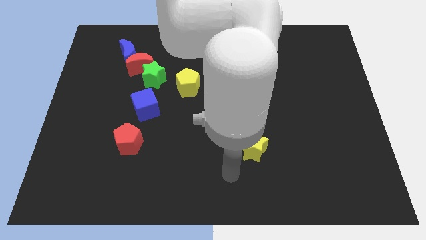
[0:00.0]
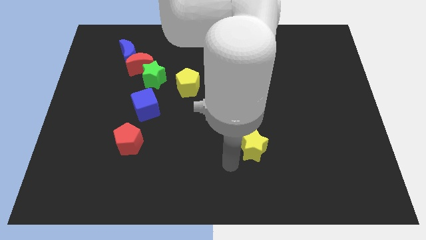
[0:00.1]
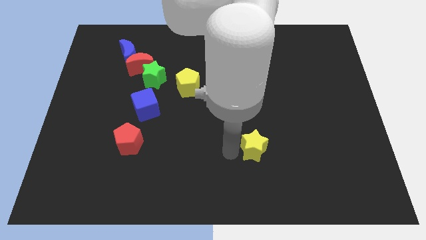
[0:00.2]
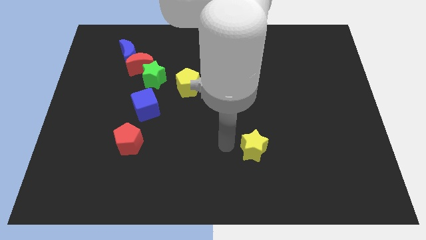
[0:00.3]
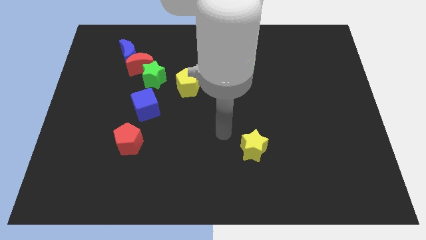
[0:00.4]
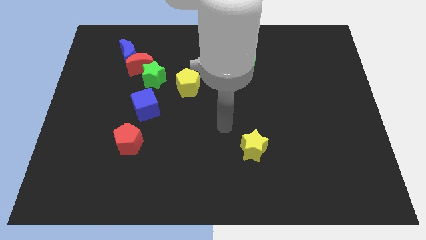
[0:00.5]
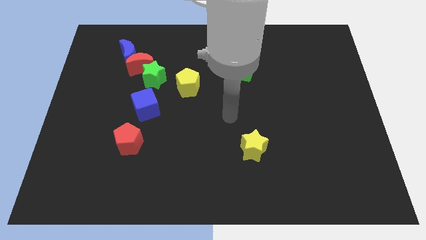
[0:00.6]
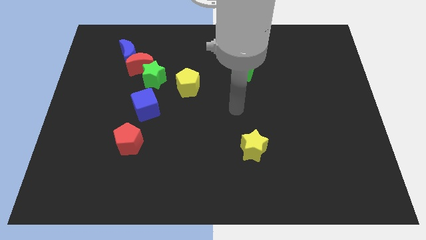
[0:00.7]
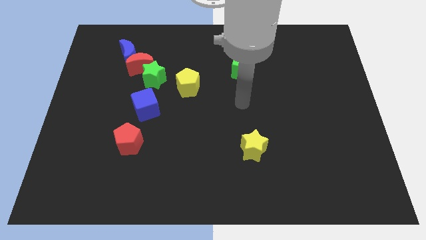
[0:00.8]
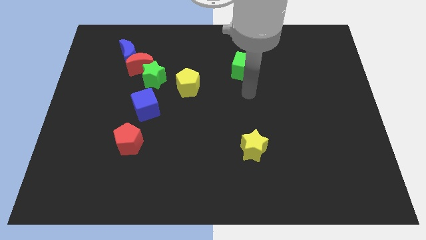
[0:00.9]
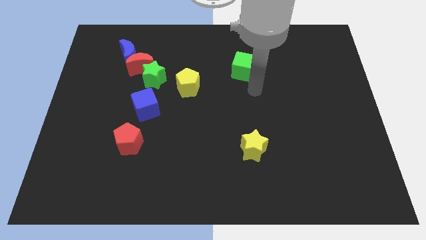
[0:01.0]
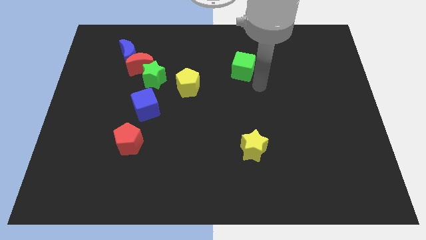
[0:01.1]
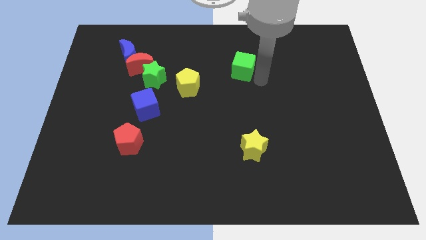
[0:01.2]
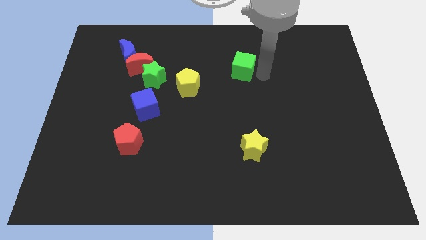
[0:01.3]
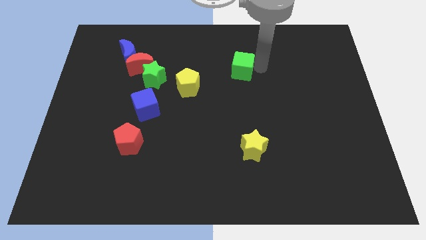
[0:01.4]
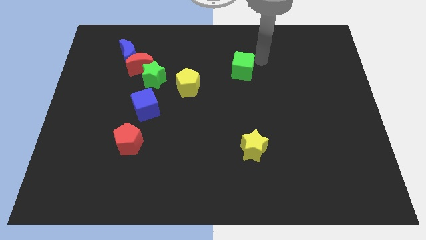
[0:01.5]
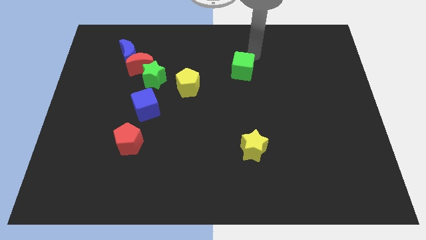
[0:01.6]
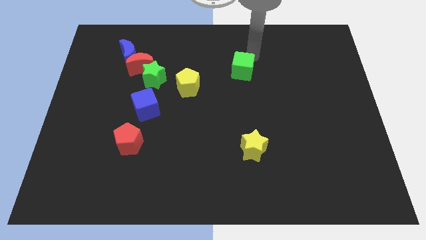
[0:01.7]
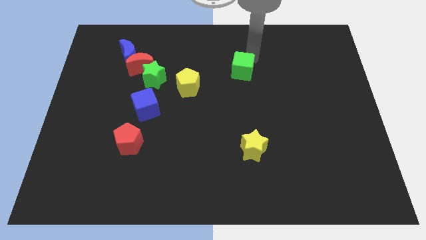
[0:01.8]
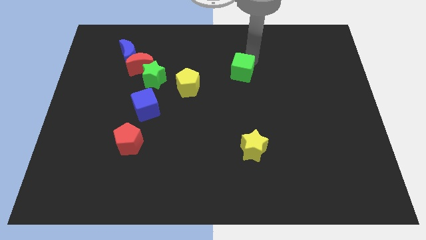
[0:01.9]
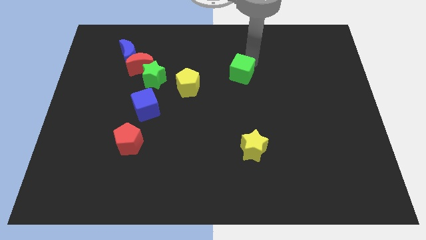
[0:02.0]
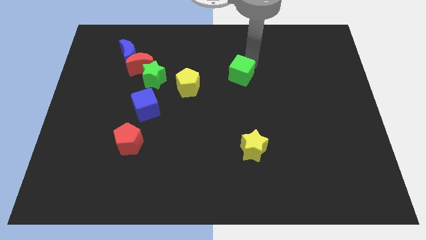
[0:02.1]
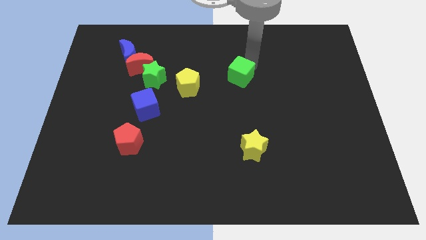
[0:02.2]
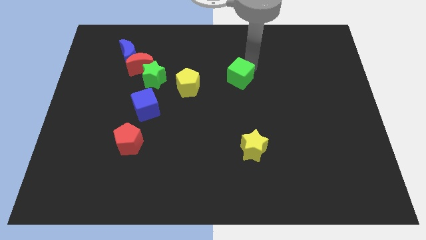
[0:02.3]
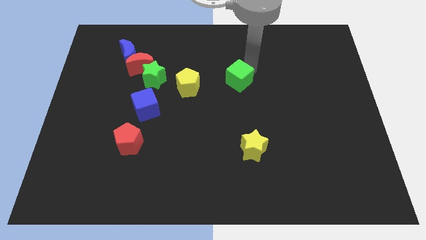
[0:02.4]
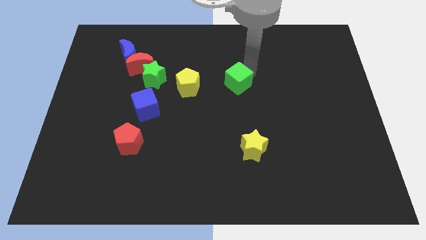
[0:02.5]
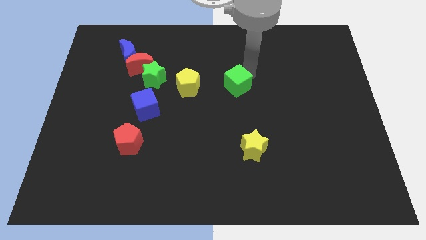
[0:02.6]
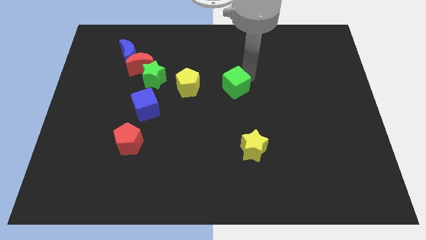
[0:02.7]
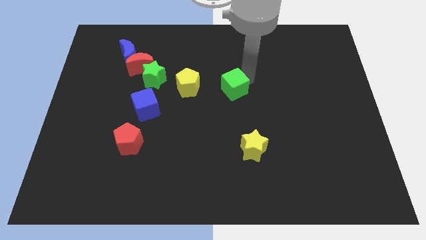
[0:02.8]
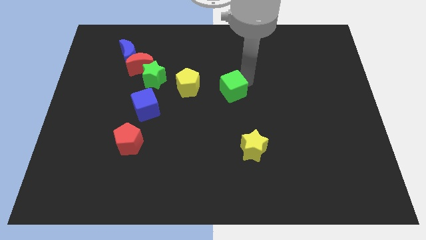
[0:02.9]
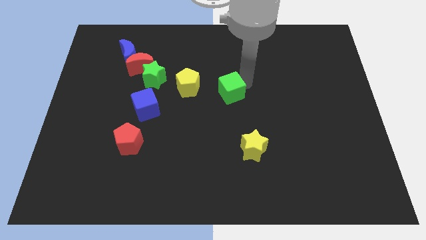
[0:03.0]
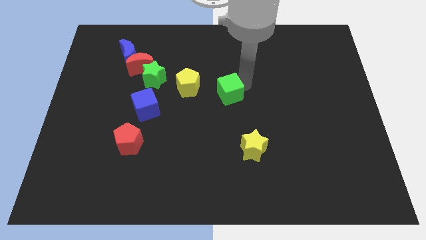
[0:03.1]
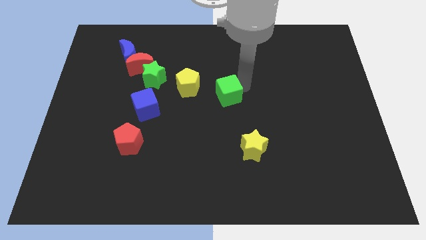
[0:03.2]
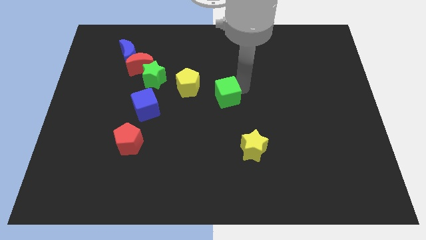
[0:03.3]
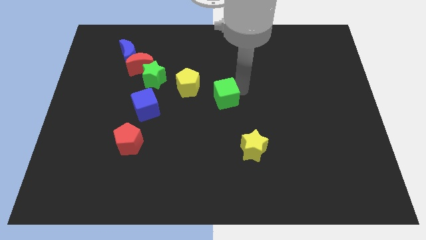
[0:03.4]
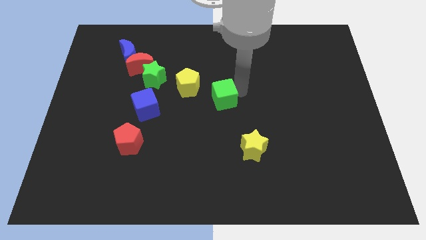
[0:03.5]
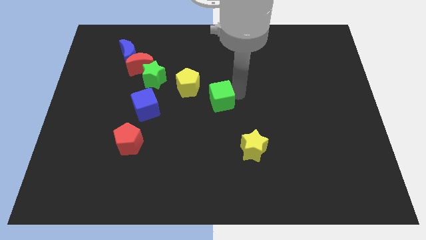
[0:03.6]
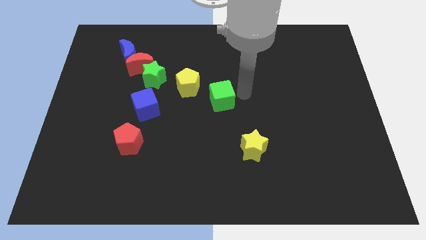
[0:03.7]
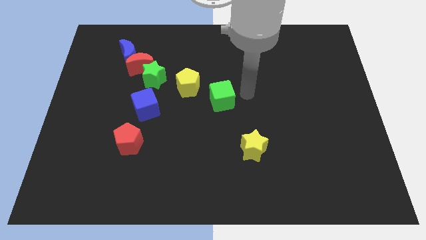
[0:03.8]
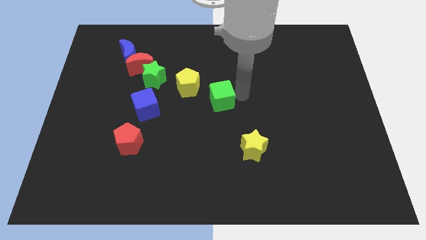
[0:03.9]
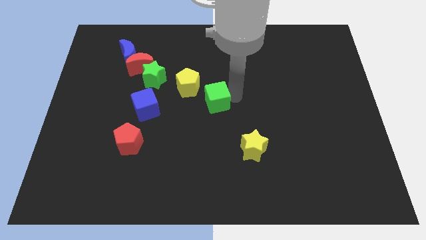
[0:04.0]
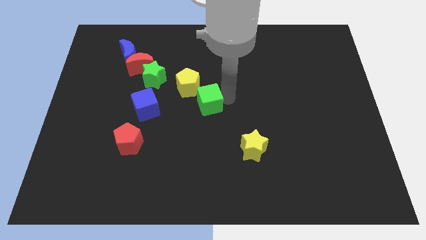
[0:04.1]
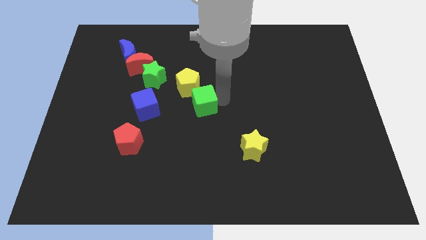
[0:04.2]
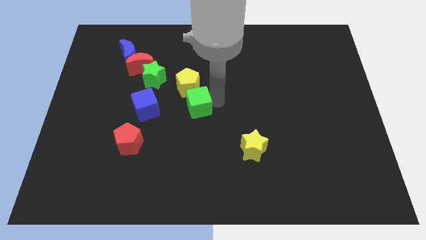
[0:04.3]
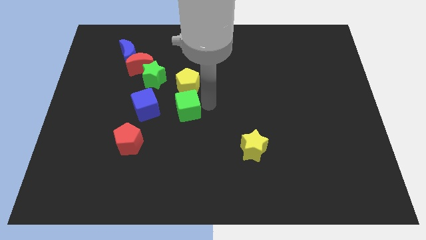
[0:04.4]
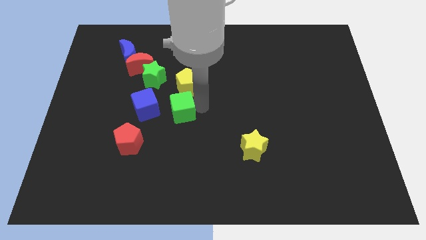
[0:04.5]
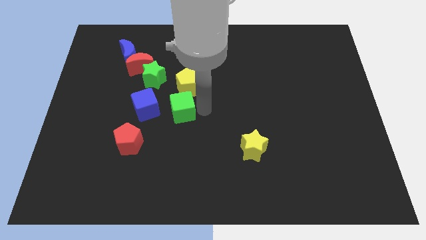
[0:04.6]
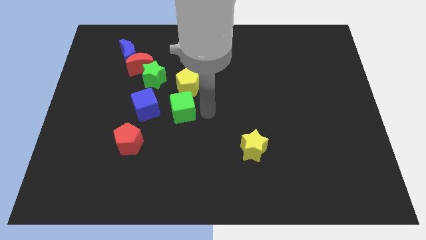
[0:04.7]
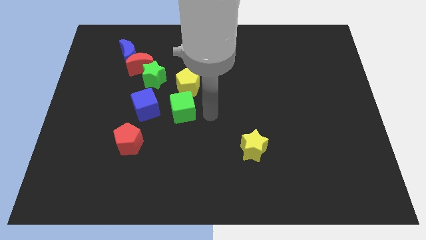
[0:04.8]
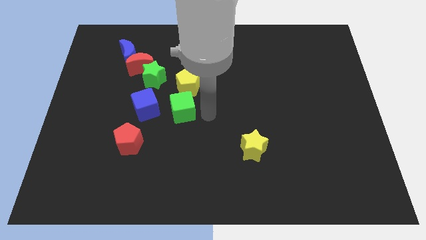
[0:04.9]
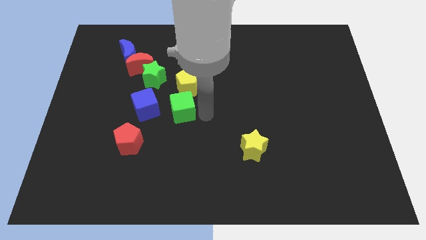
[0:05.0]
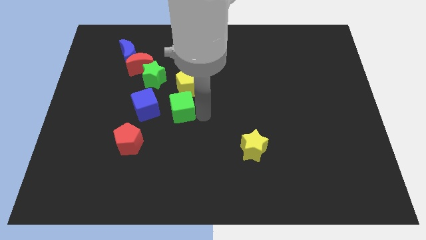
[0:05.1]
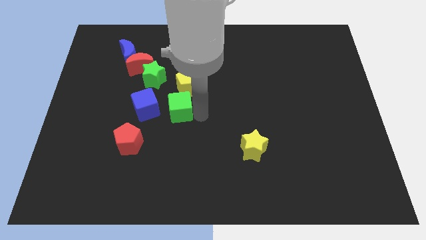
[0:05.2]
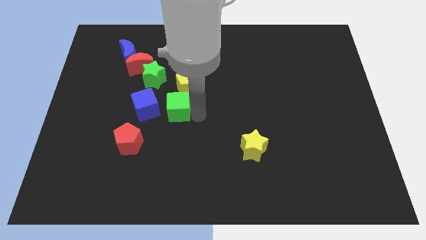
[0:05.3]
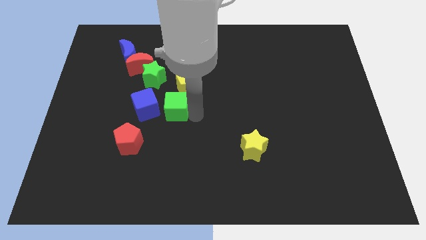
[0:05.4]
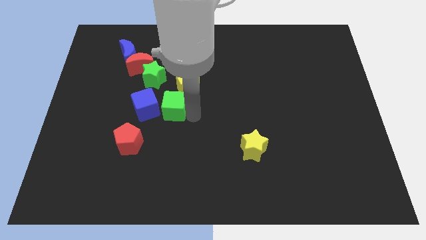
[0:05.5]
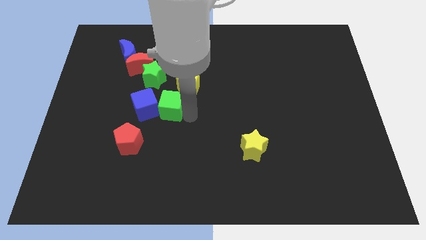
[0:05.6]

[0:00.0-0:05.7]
put the green cube next to the blue cube

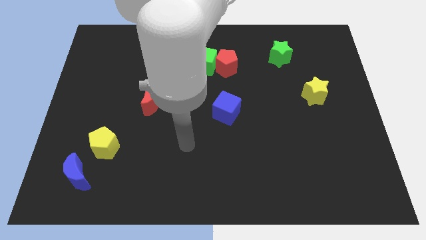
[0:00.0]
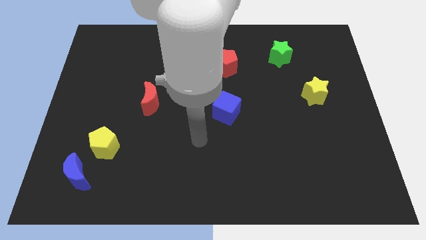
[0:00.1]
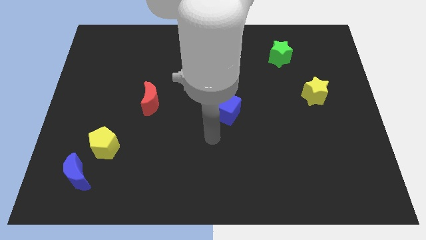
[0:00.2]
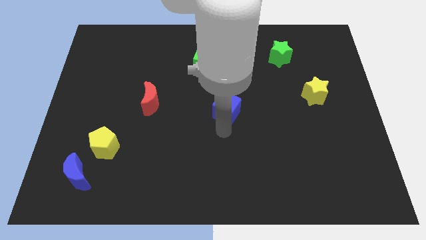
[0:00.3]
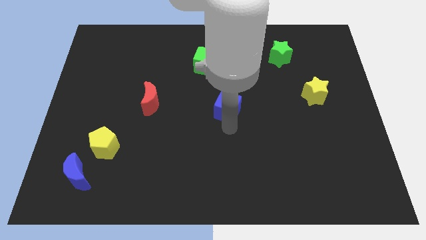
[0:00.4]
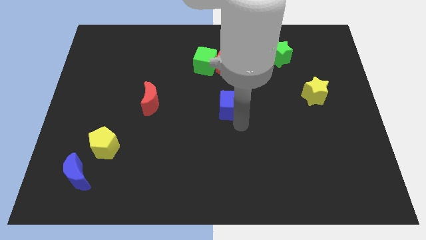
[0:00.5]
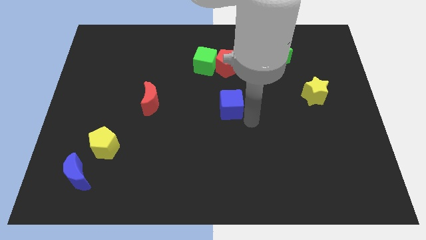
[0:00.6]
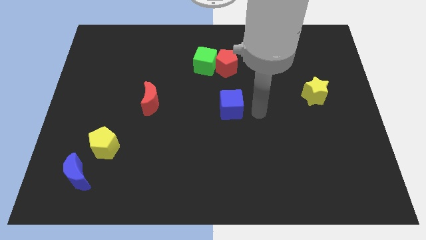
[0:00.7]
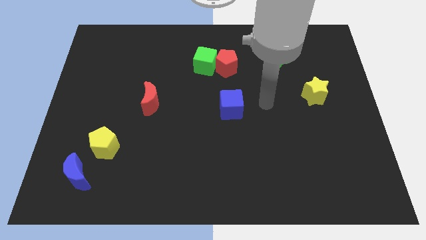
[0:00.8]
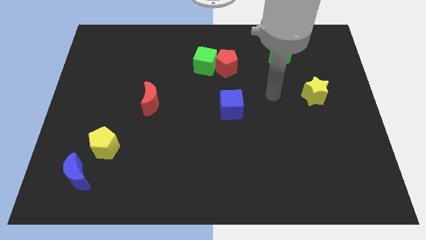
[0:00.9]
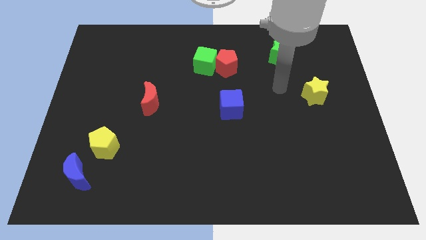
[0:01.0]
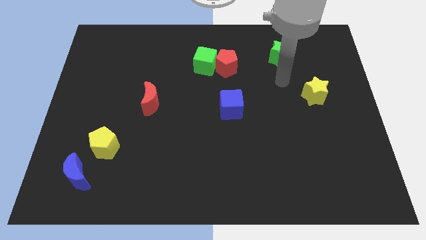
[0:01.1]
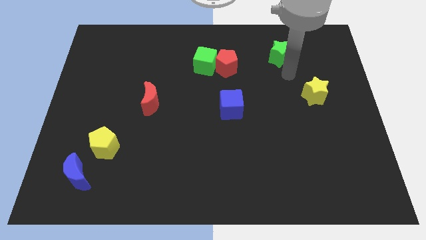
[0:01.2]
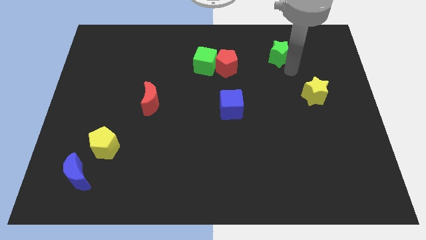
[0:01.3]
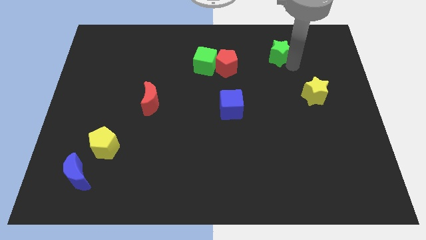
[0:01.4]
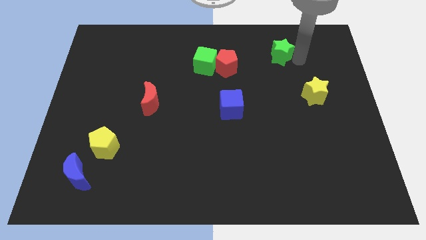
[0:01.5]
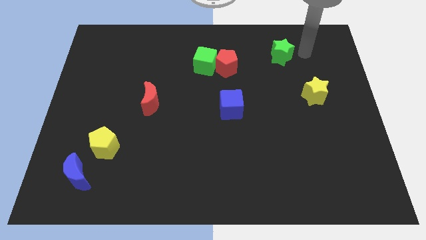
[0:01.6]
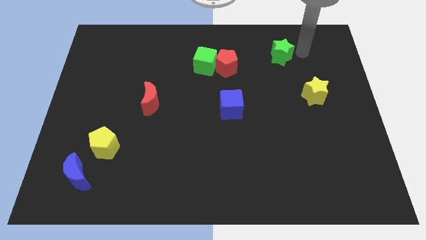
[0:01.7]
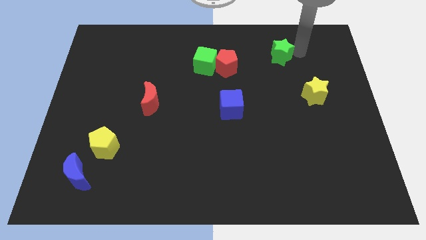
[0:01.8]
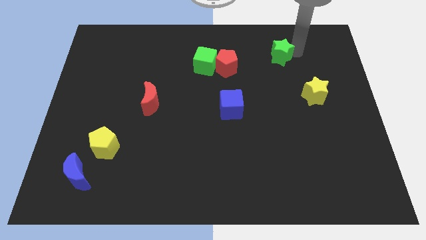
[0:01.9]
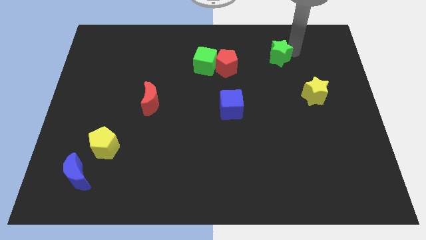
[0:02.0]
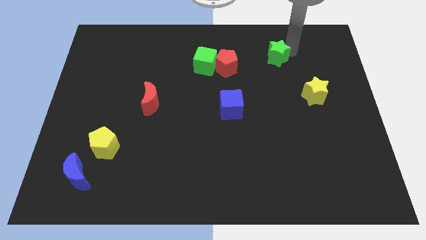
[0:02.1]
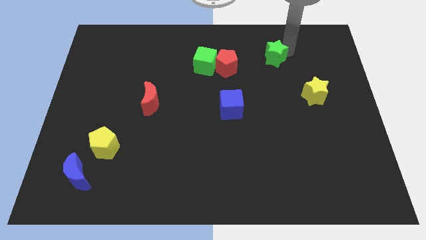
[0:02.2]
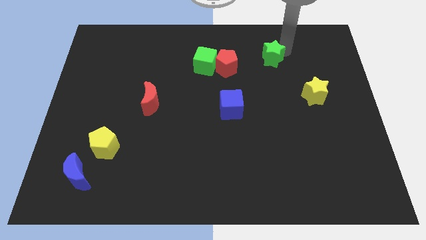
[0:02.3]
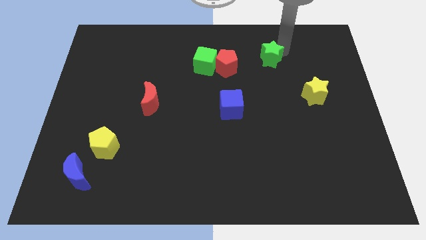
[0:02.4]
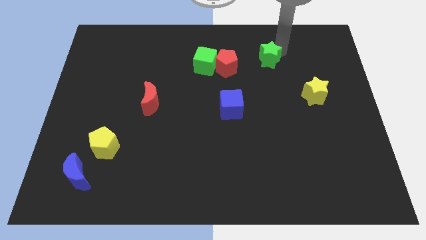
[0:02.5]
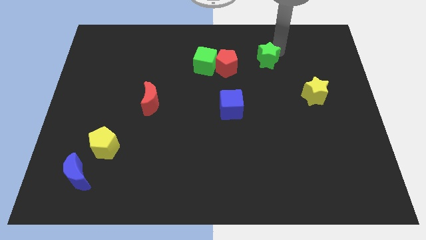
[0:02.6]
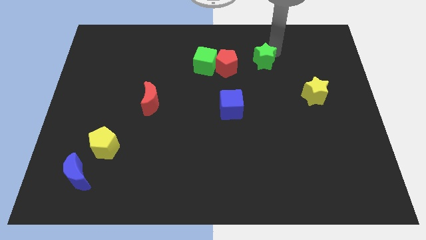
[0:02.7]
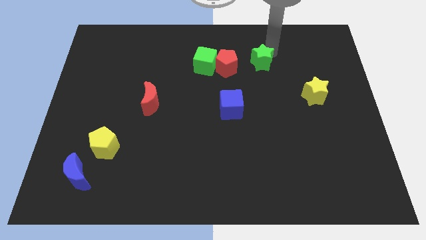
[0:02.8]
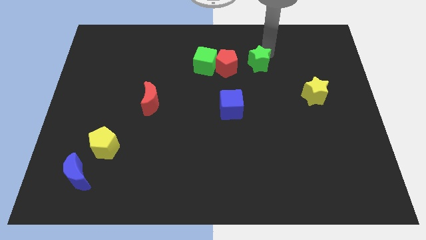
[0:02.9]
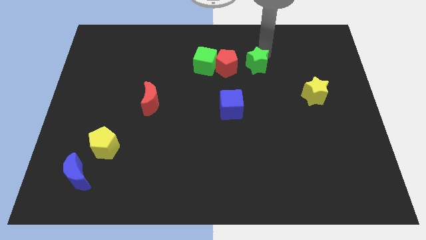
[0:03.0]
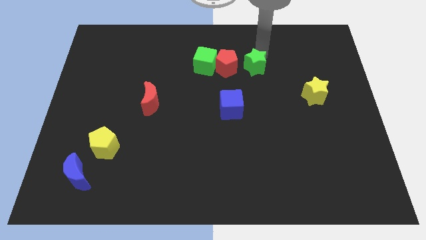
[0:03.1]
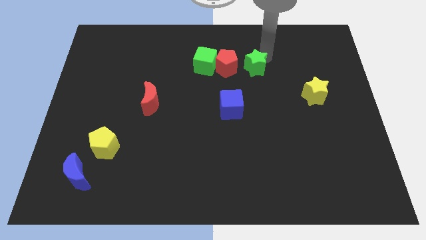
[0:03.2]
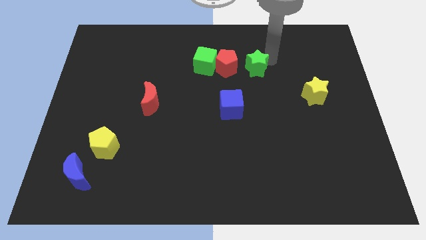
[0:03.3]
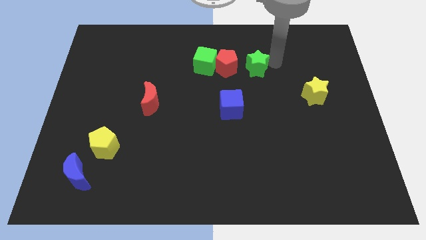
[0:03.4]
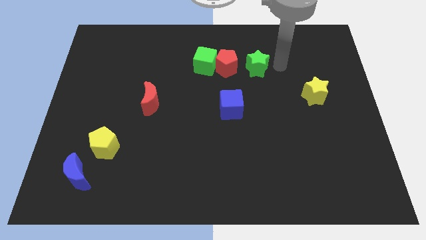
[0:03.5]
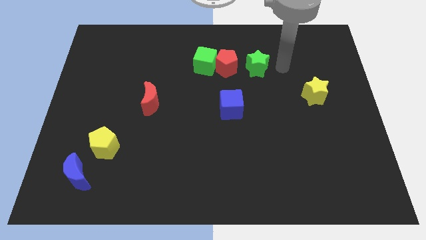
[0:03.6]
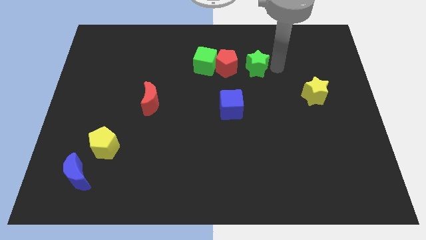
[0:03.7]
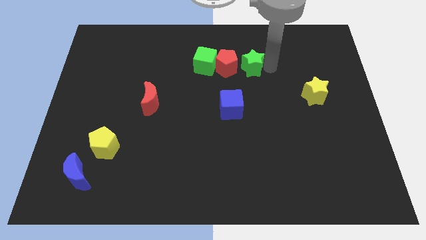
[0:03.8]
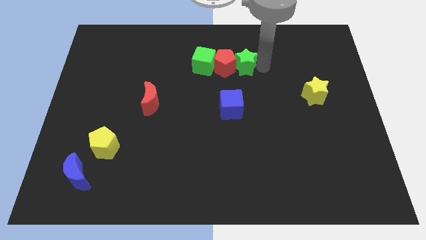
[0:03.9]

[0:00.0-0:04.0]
push the green star towards the red pentagon
